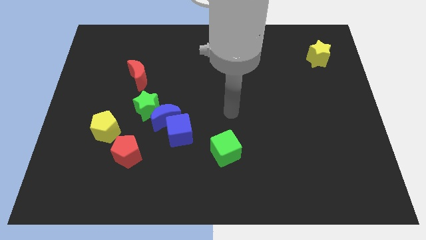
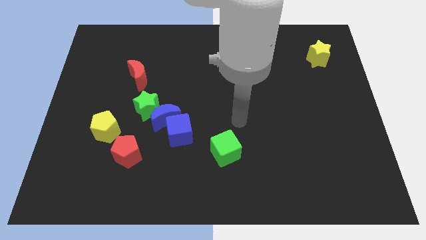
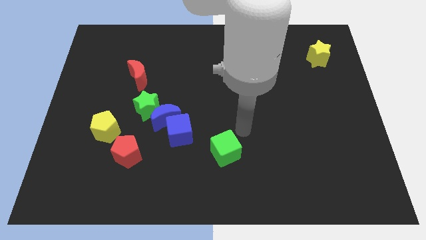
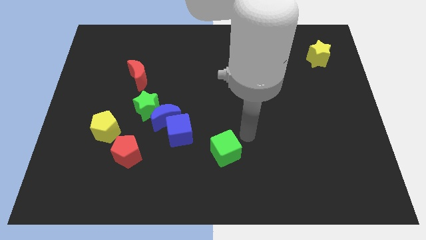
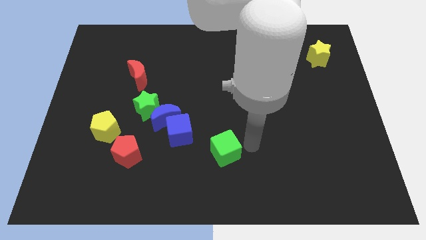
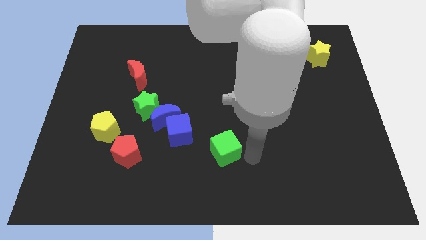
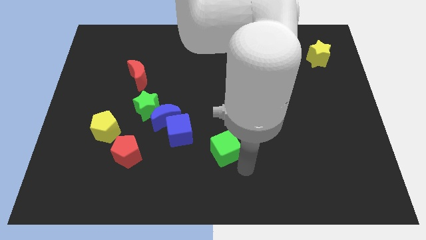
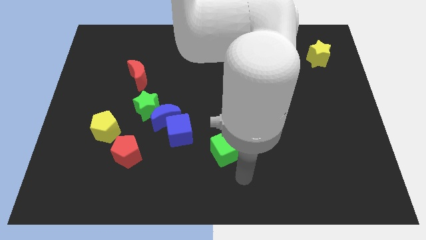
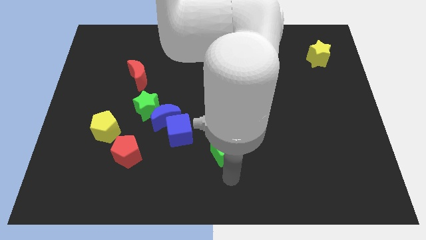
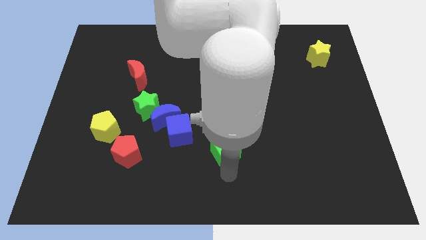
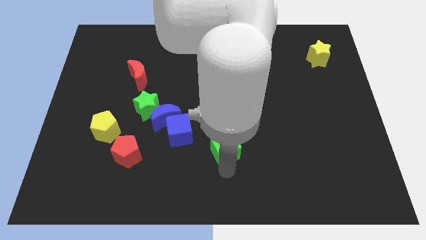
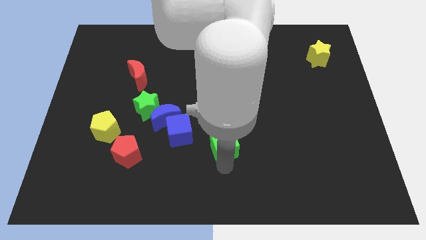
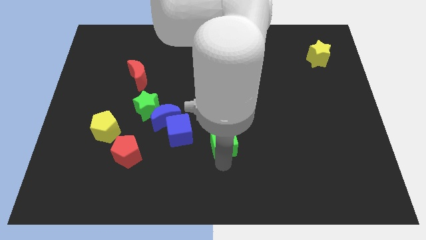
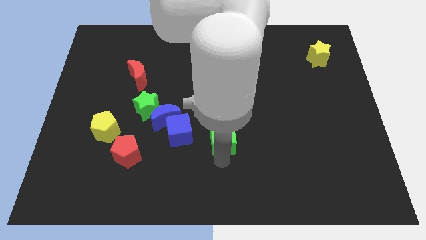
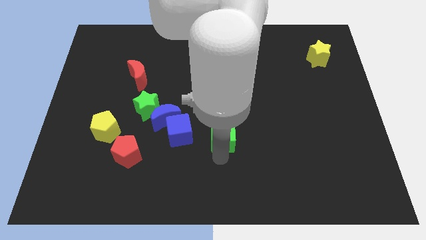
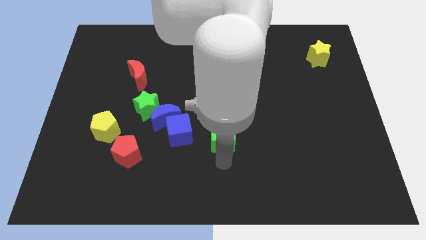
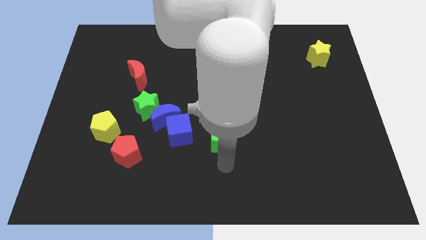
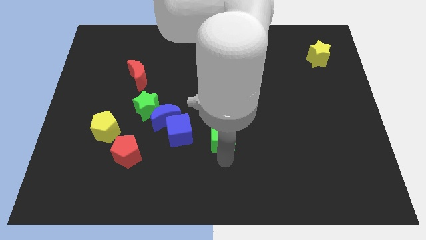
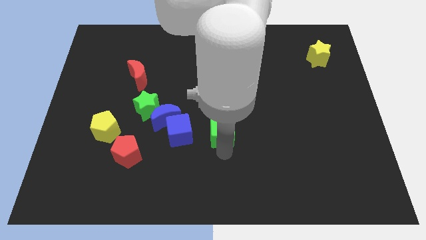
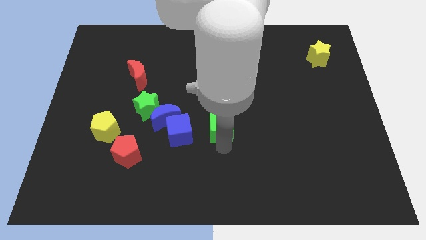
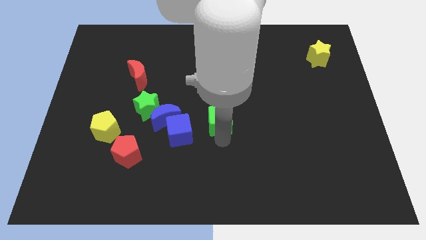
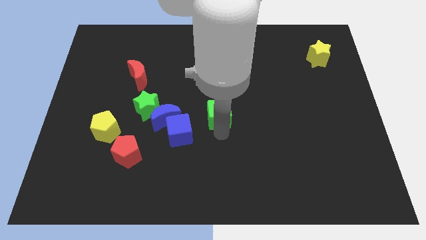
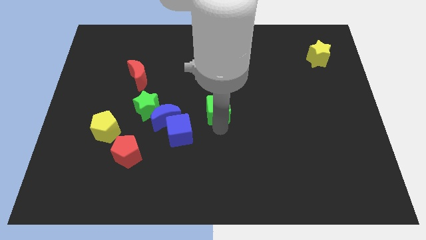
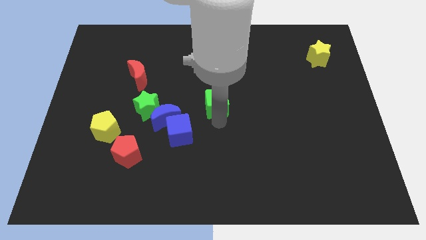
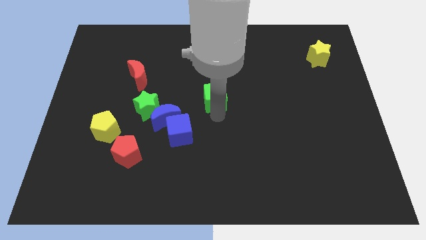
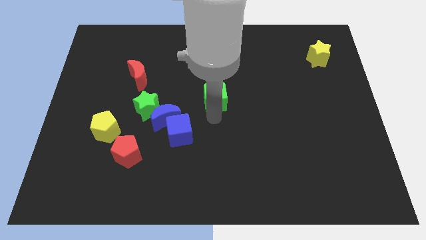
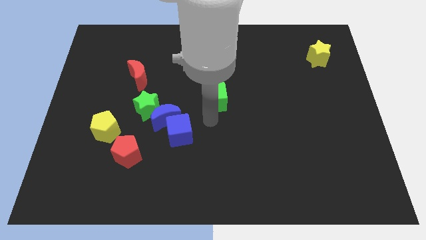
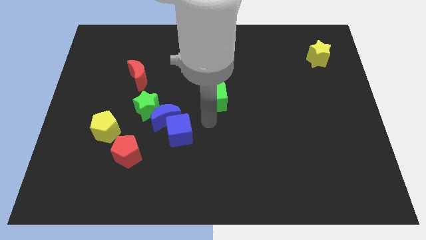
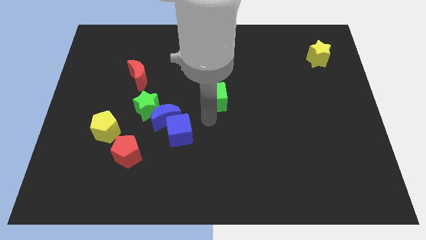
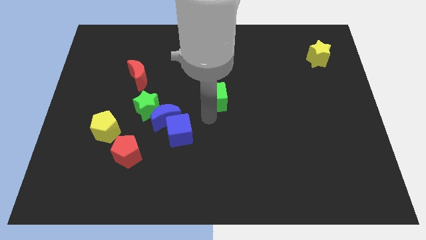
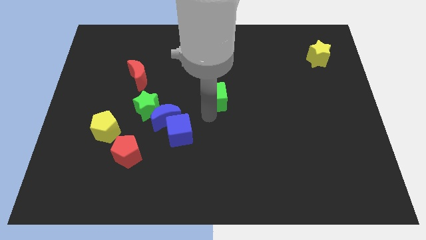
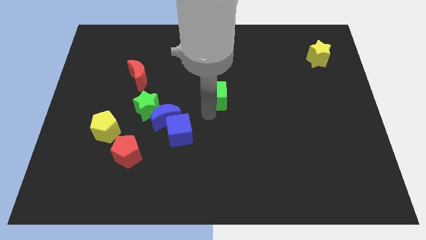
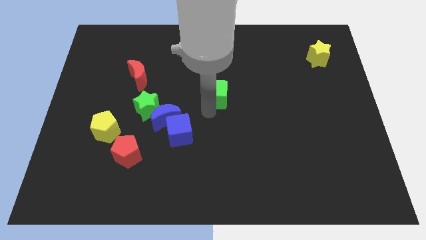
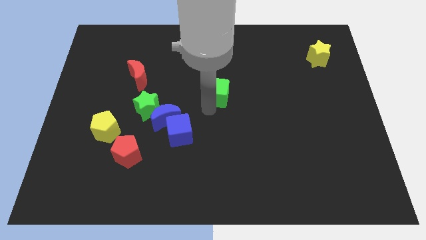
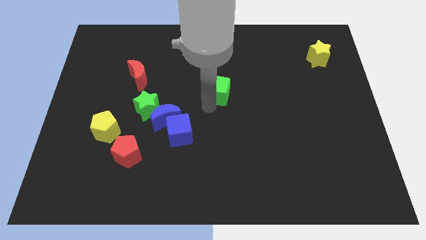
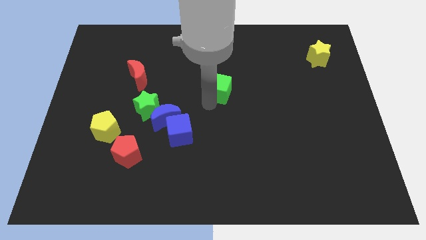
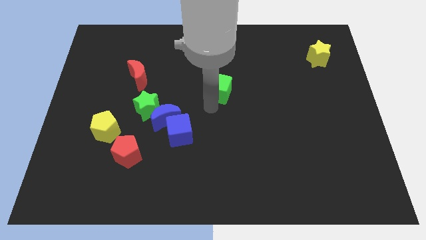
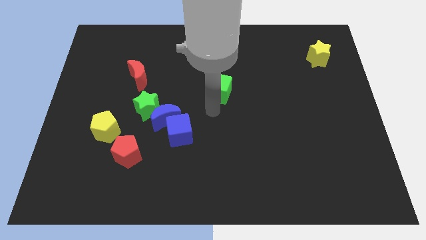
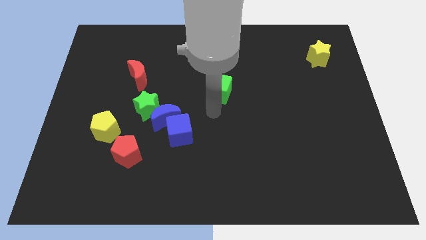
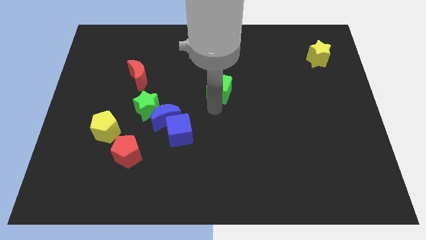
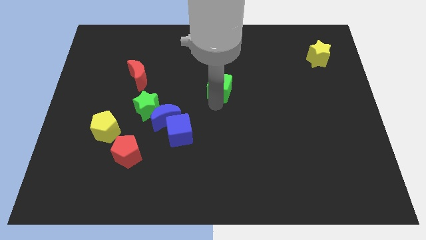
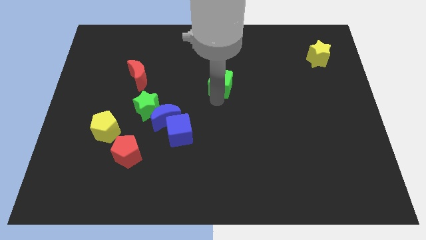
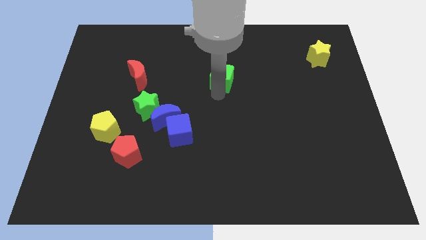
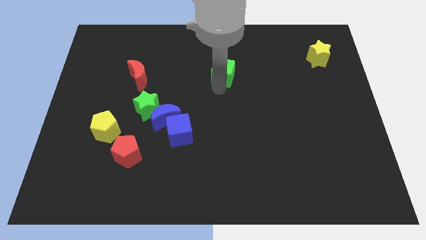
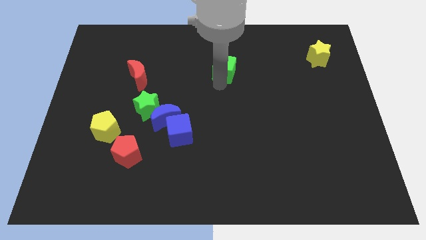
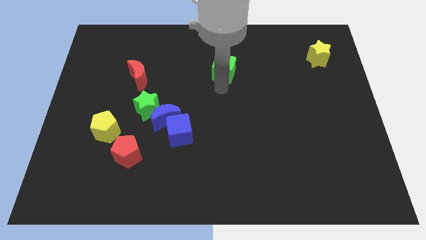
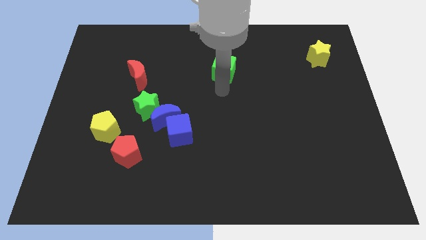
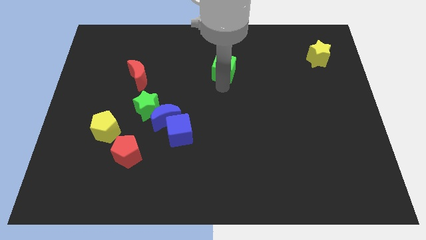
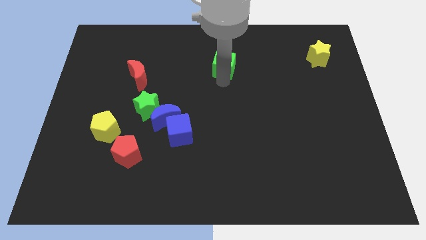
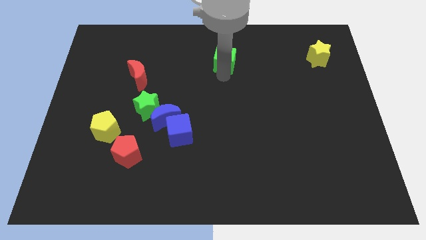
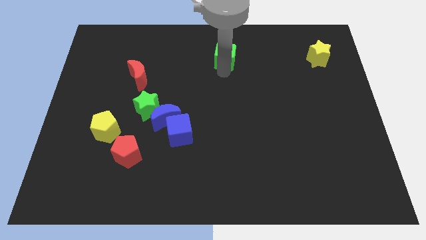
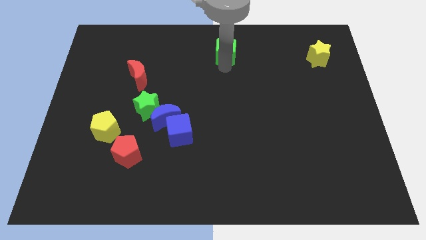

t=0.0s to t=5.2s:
put the green cube to the towards your base

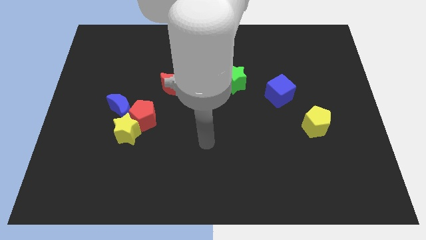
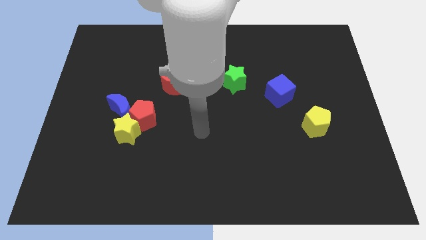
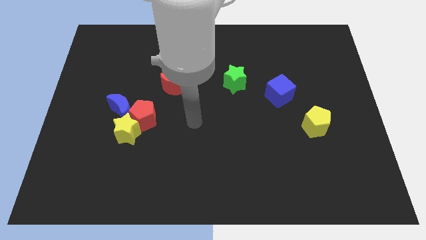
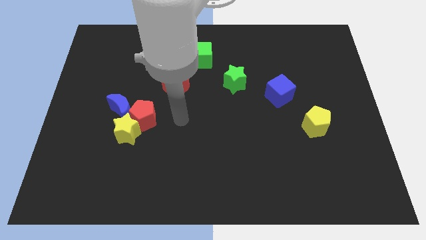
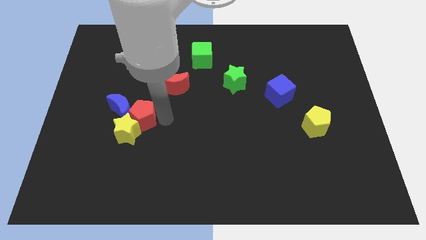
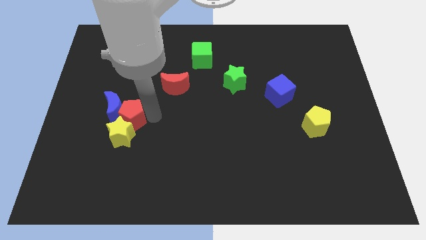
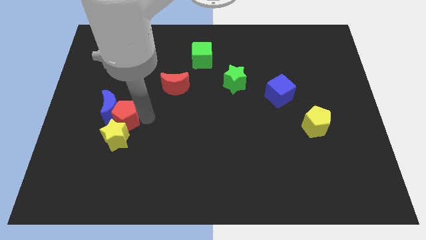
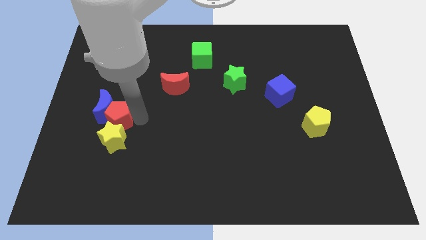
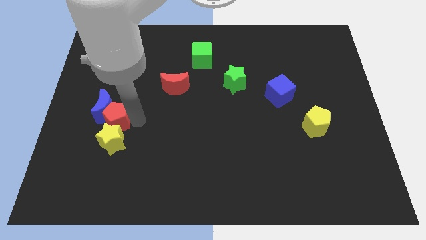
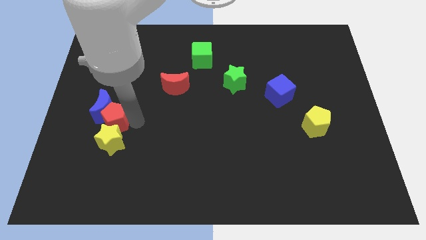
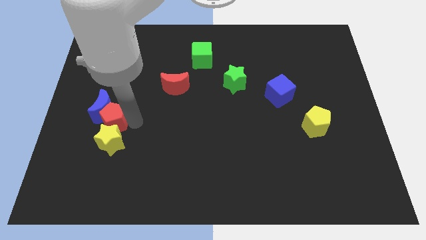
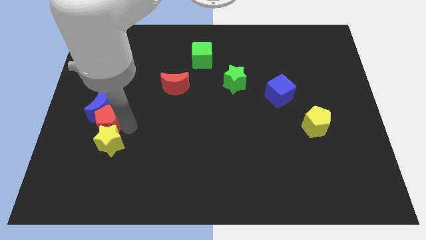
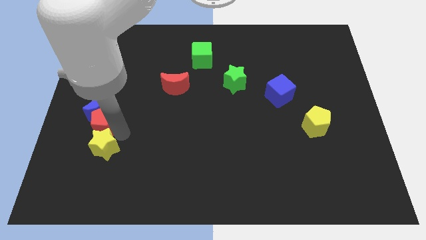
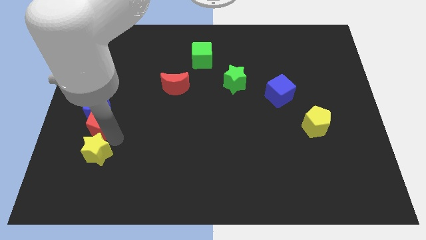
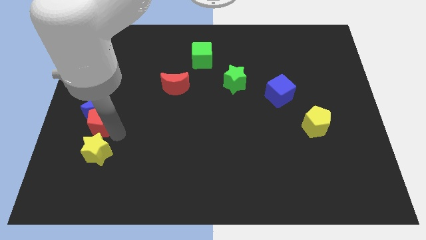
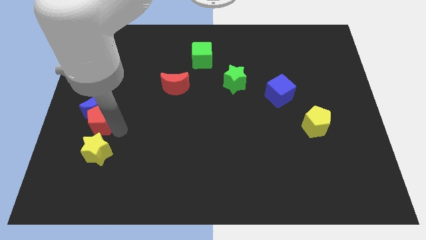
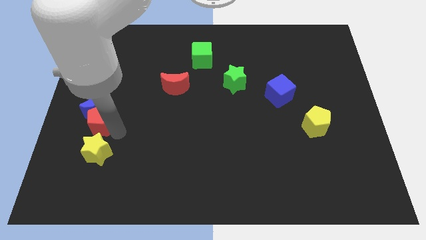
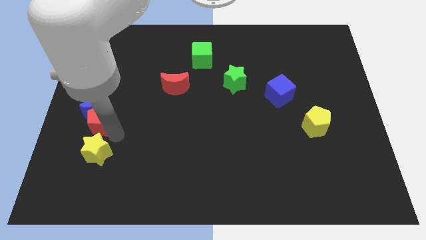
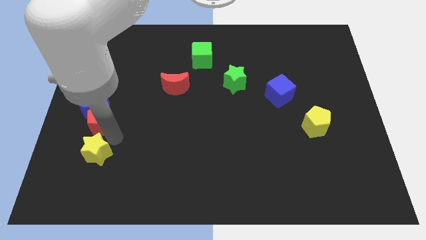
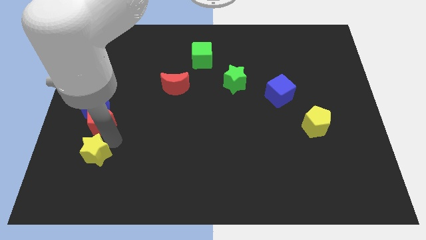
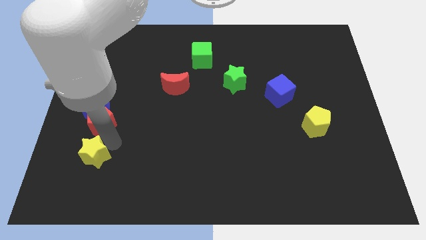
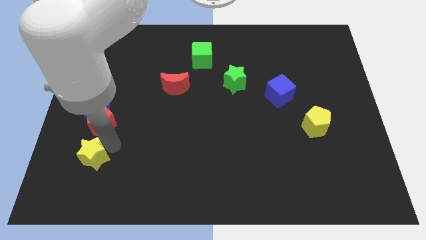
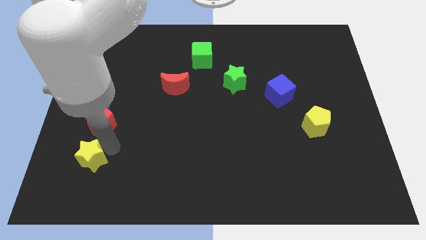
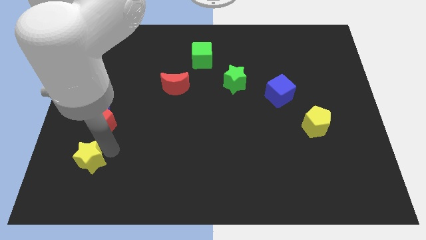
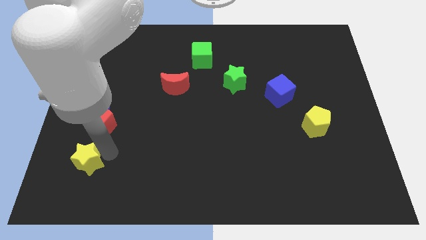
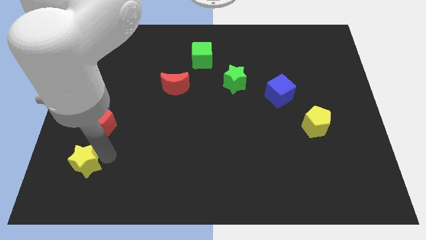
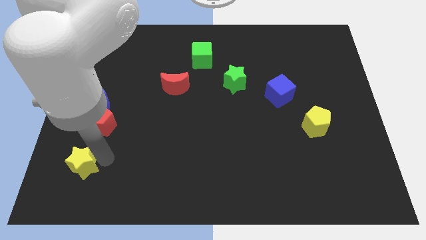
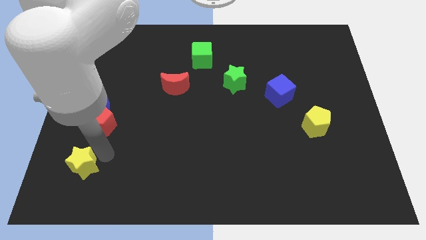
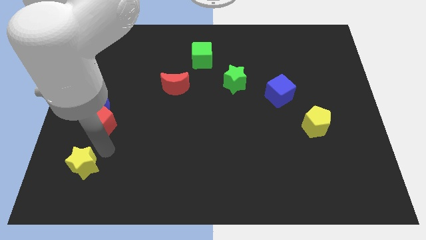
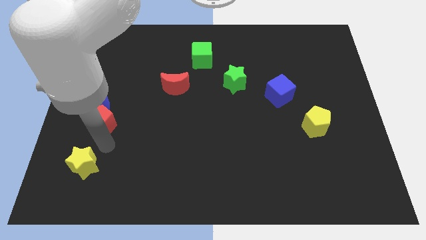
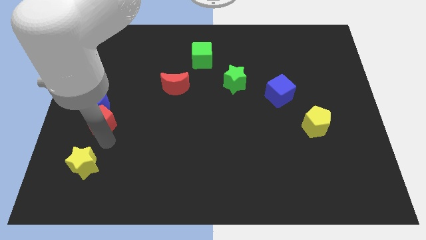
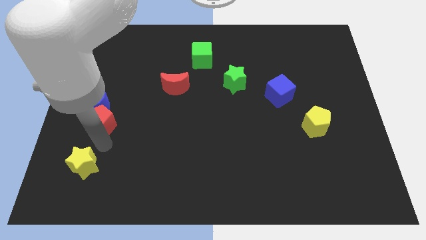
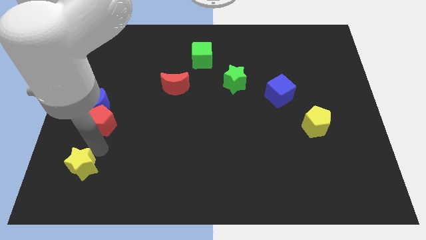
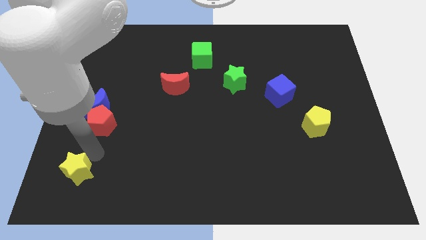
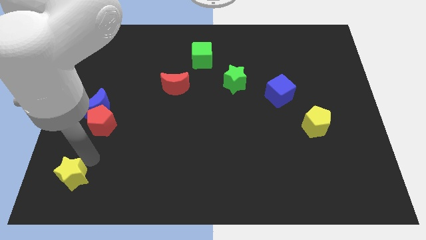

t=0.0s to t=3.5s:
slide the yellow star to the bottom left corner
